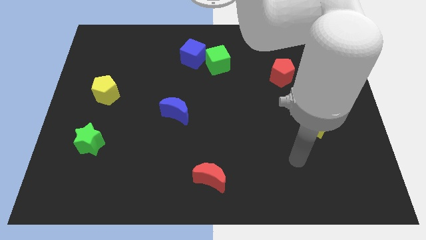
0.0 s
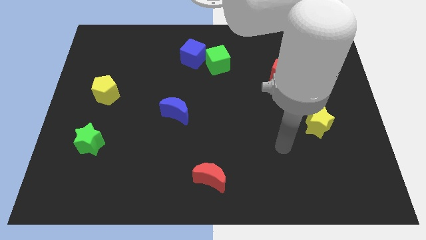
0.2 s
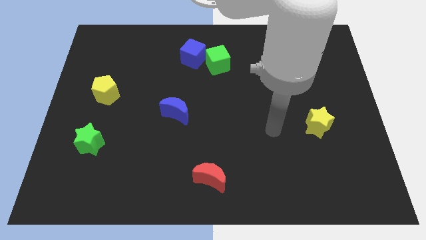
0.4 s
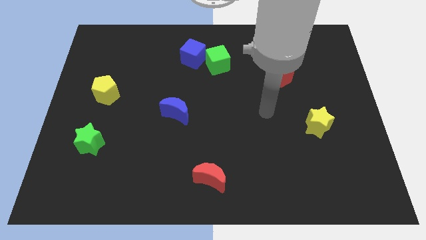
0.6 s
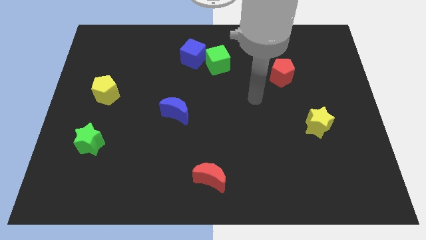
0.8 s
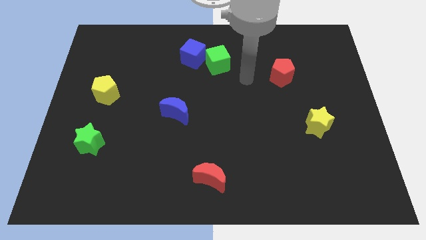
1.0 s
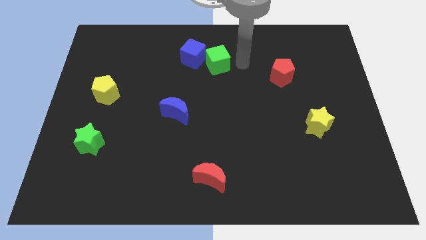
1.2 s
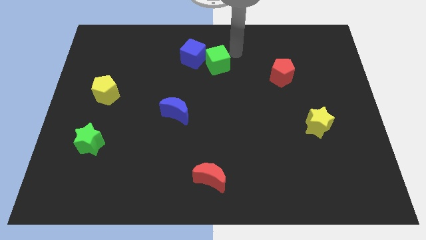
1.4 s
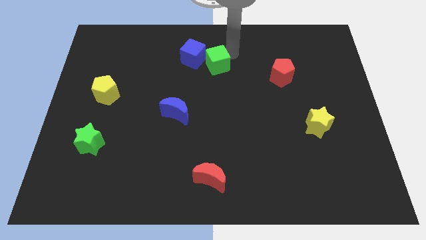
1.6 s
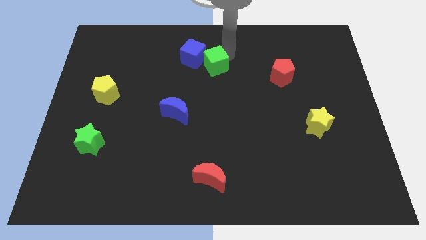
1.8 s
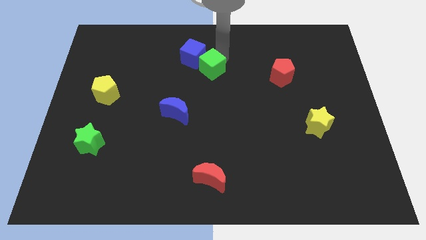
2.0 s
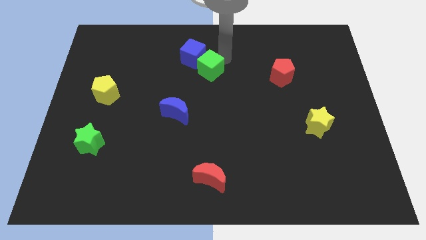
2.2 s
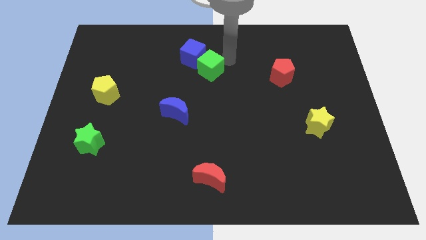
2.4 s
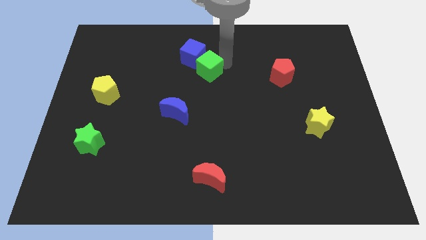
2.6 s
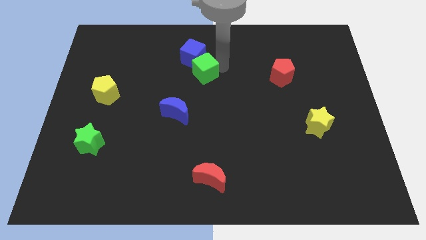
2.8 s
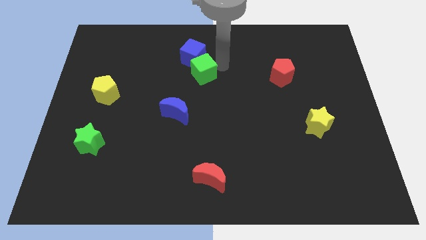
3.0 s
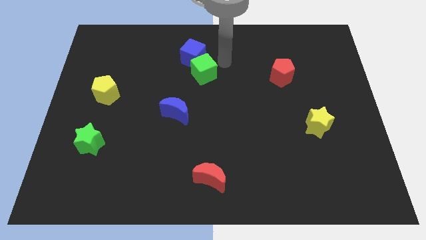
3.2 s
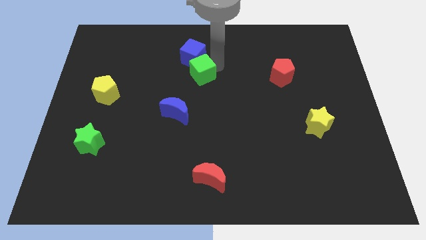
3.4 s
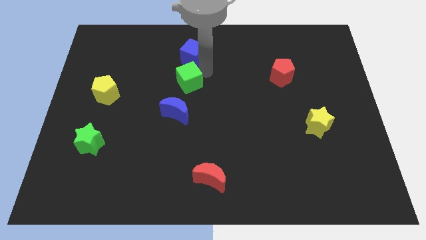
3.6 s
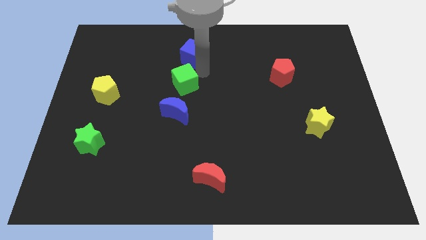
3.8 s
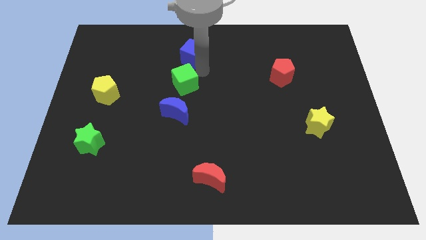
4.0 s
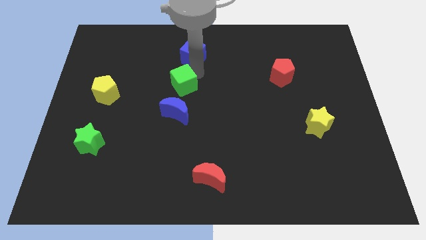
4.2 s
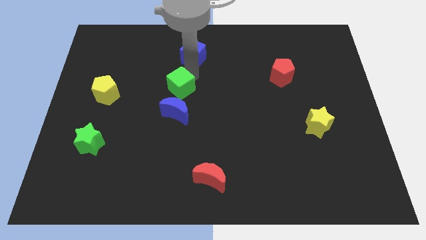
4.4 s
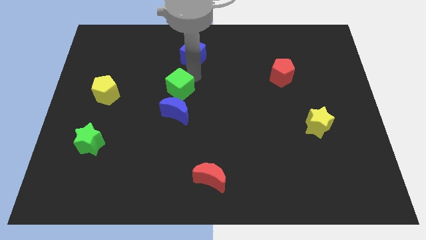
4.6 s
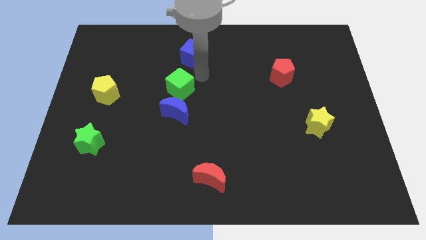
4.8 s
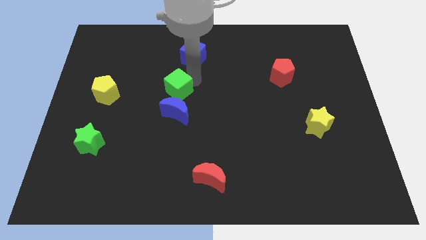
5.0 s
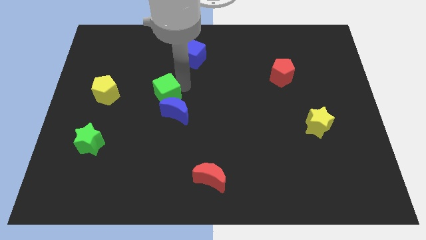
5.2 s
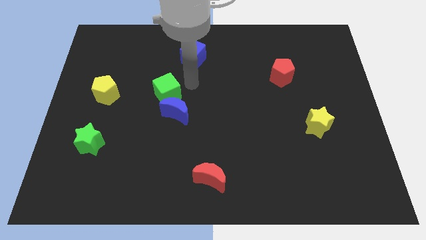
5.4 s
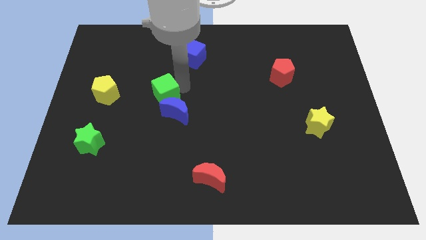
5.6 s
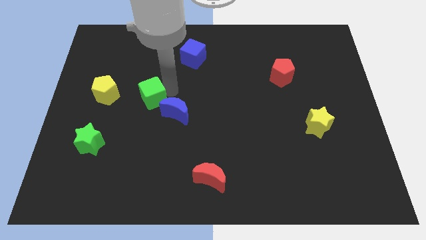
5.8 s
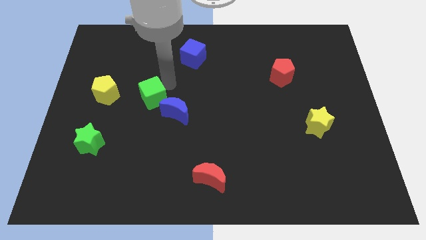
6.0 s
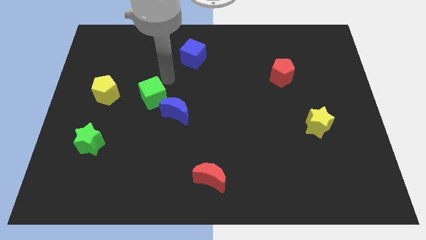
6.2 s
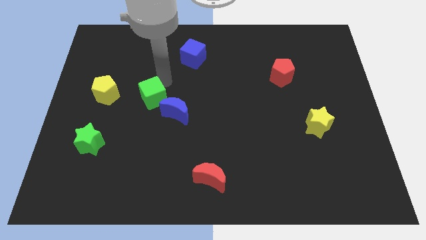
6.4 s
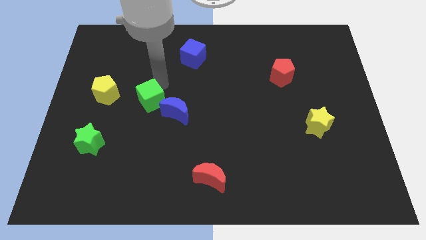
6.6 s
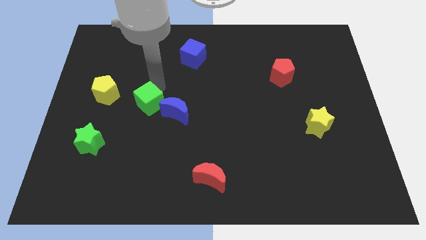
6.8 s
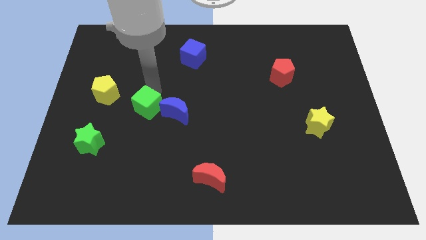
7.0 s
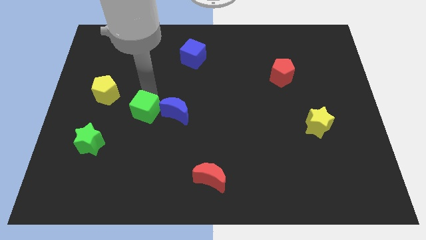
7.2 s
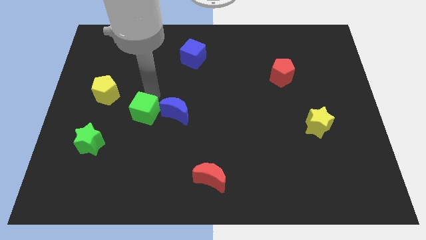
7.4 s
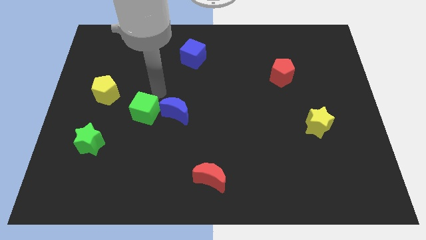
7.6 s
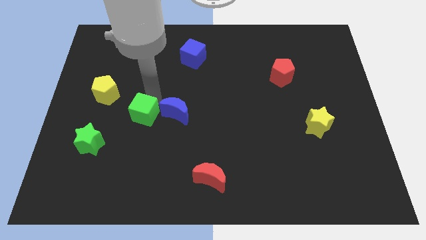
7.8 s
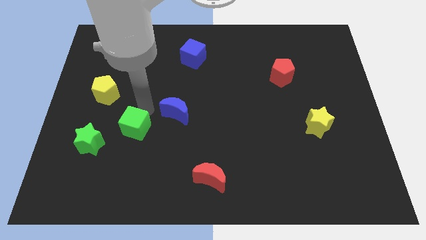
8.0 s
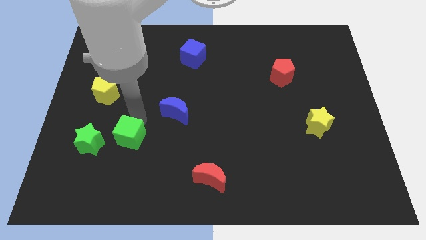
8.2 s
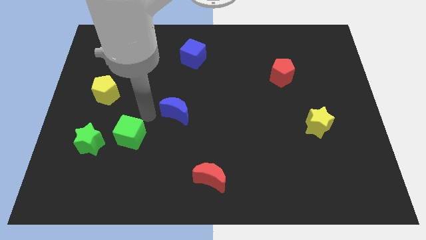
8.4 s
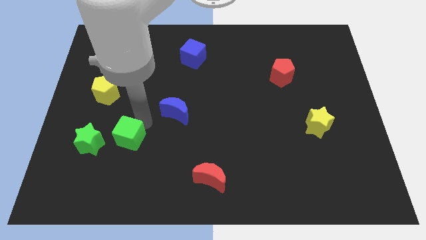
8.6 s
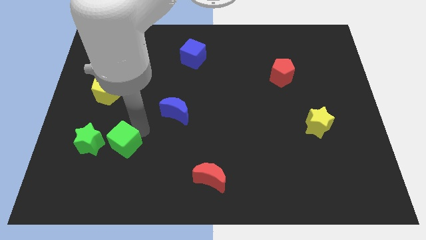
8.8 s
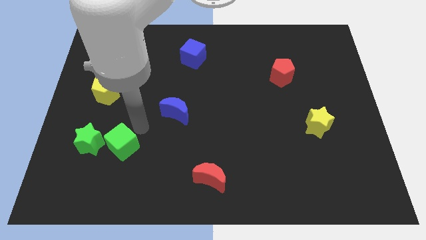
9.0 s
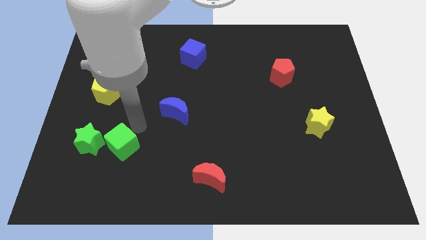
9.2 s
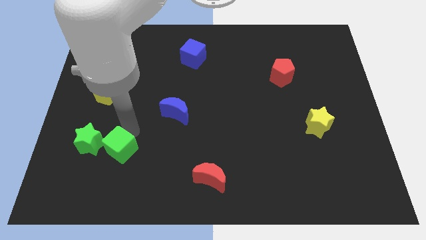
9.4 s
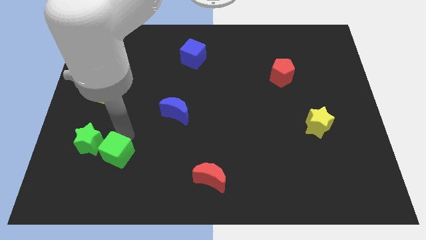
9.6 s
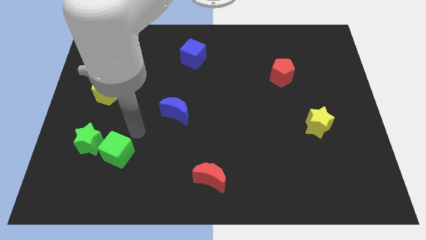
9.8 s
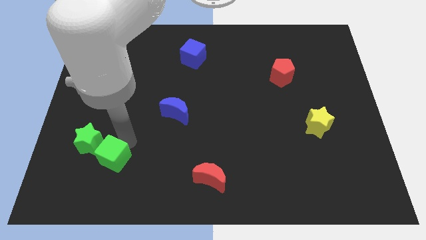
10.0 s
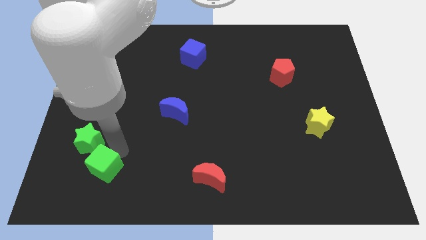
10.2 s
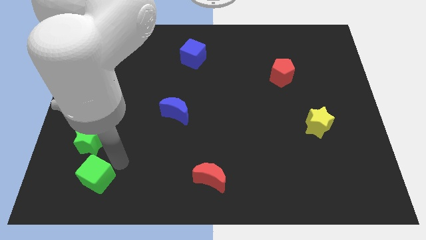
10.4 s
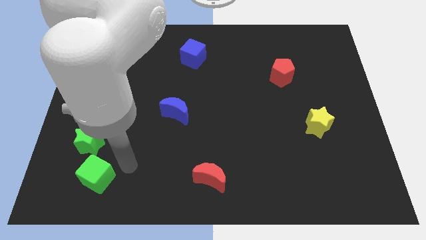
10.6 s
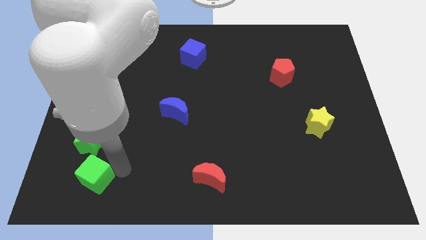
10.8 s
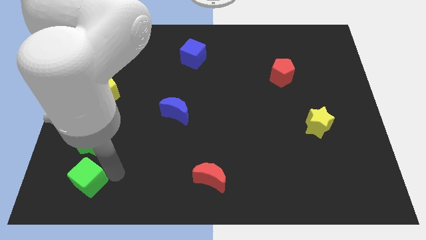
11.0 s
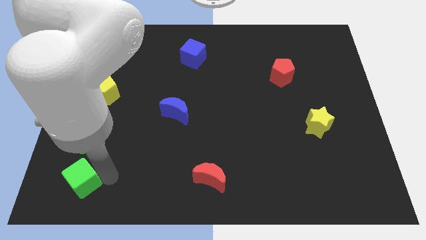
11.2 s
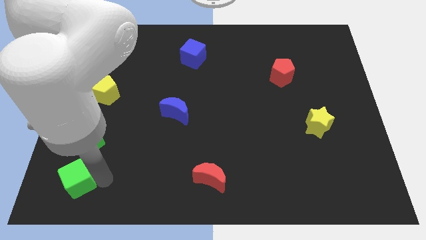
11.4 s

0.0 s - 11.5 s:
put the green cube to the bottom left corner

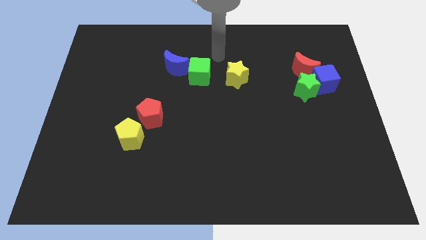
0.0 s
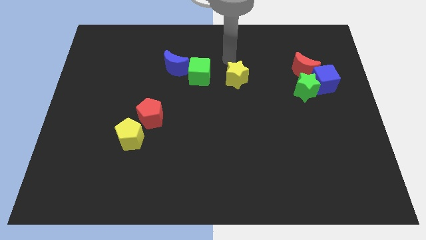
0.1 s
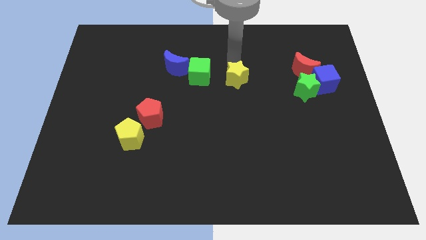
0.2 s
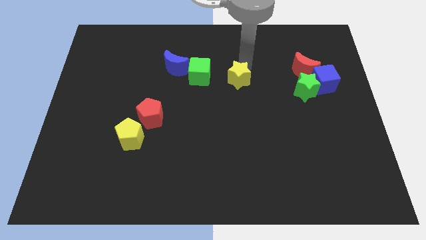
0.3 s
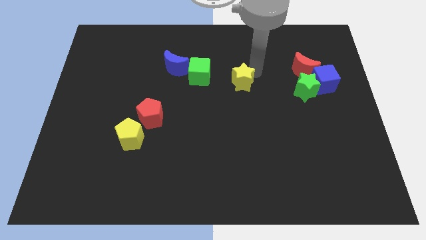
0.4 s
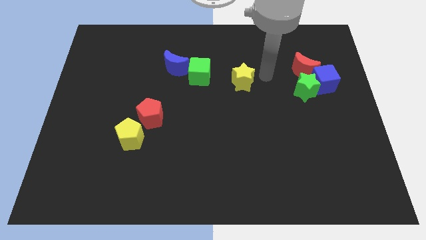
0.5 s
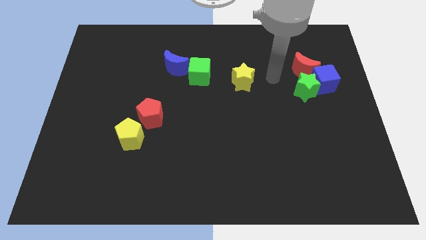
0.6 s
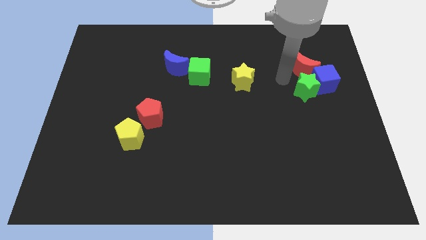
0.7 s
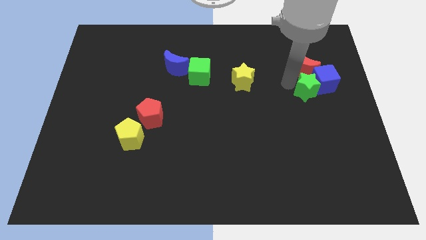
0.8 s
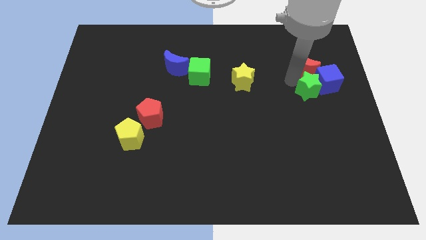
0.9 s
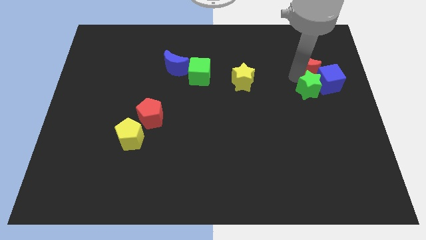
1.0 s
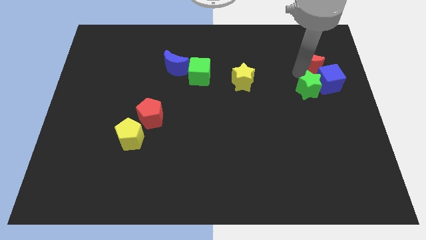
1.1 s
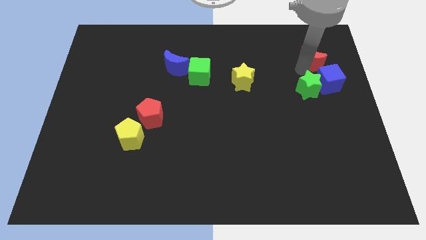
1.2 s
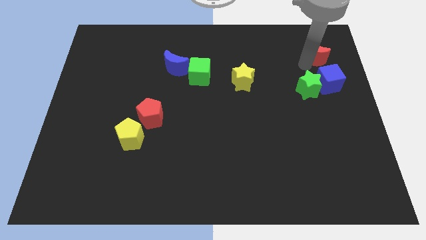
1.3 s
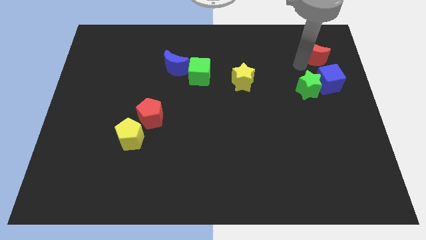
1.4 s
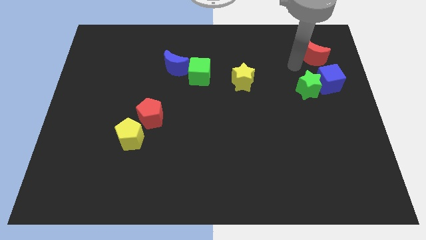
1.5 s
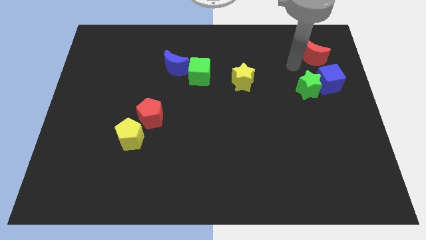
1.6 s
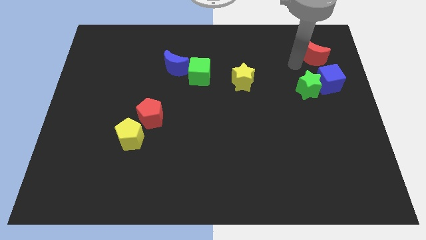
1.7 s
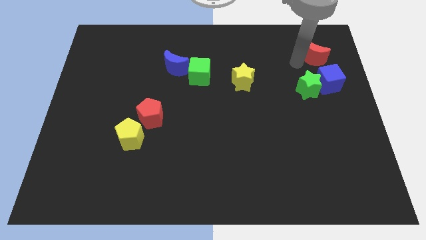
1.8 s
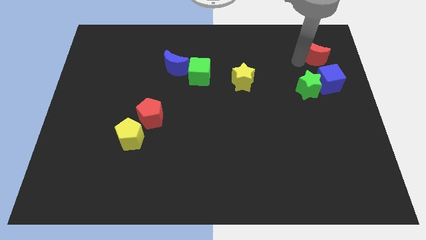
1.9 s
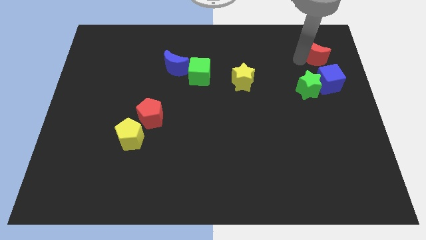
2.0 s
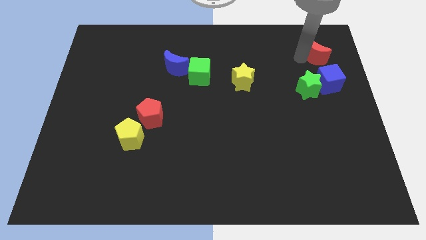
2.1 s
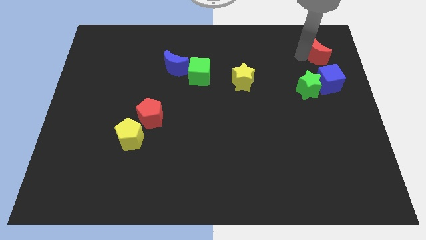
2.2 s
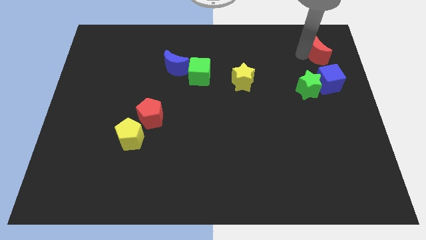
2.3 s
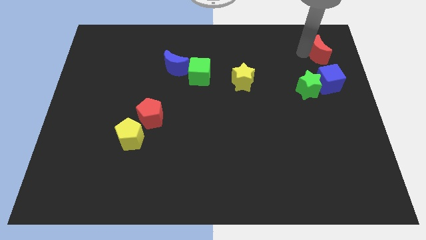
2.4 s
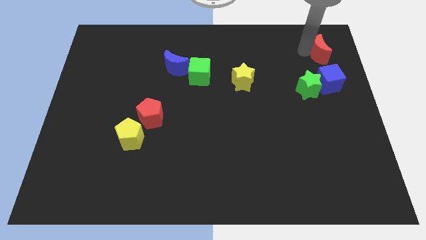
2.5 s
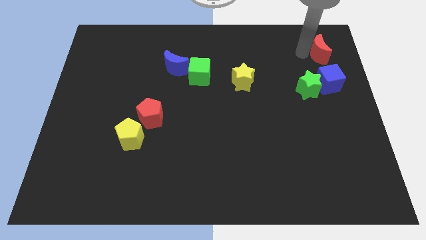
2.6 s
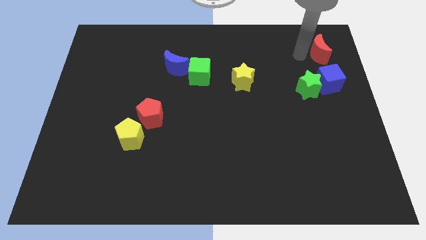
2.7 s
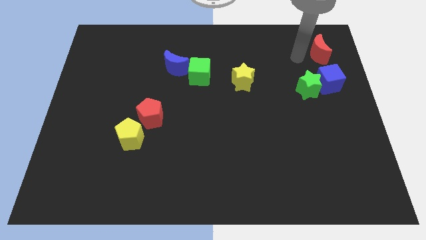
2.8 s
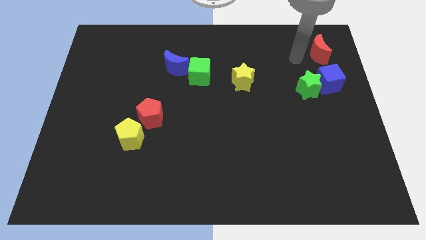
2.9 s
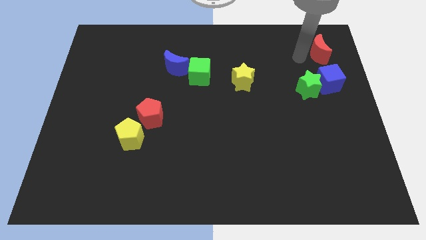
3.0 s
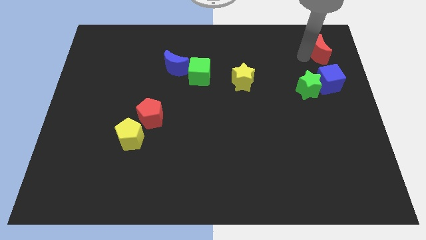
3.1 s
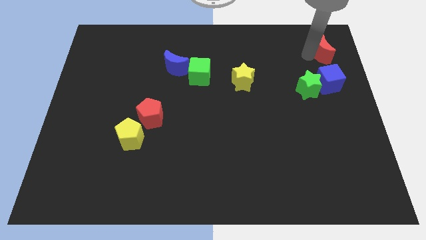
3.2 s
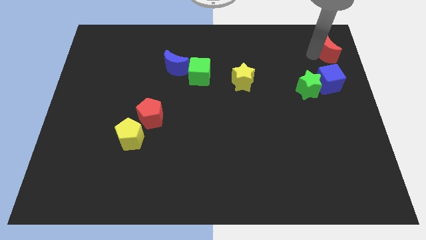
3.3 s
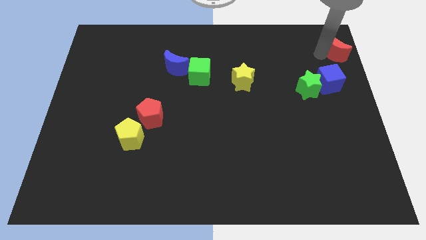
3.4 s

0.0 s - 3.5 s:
put the red moon to the top right of the board
